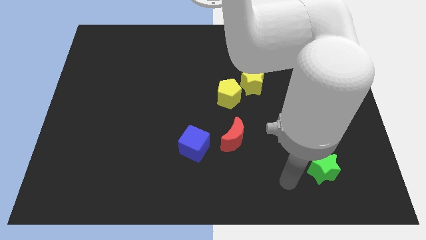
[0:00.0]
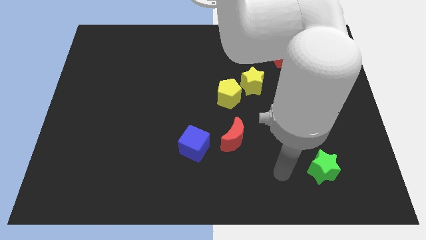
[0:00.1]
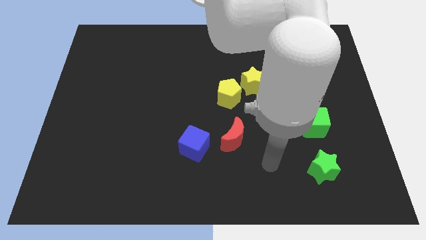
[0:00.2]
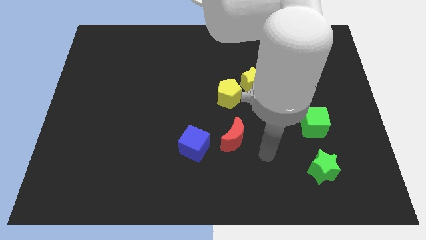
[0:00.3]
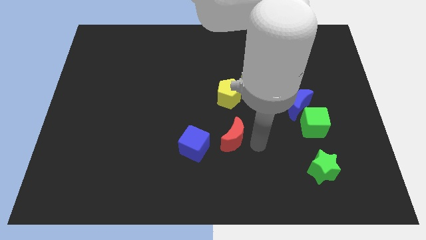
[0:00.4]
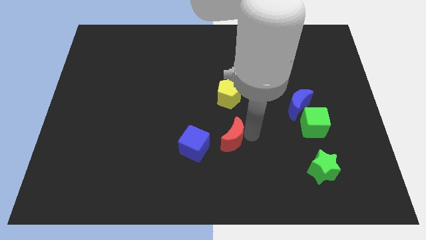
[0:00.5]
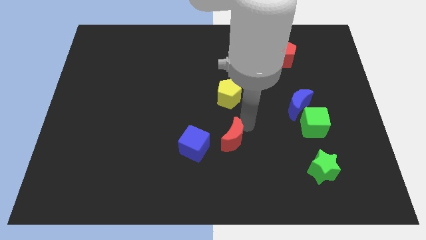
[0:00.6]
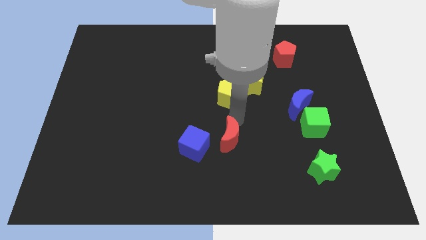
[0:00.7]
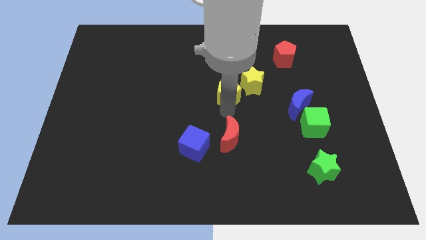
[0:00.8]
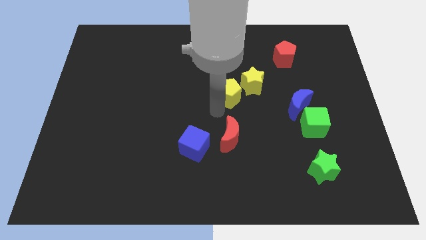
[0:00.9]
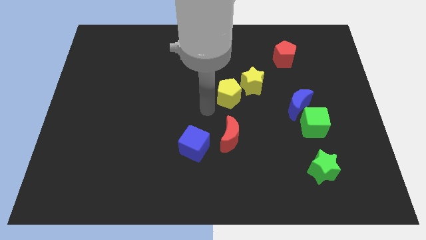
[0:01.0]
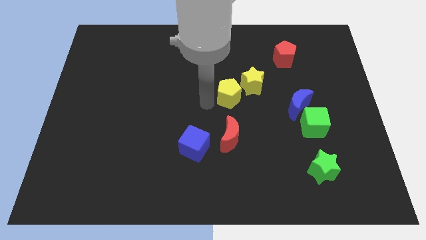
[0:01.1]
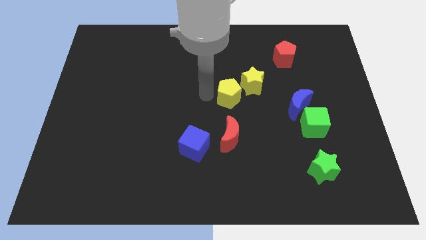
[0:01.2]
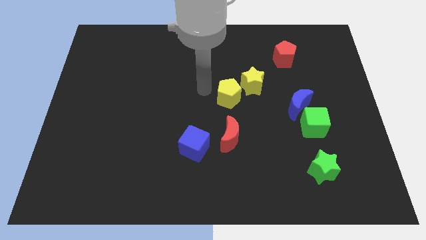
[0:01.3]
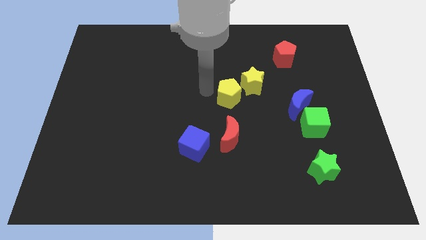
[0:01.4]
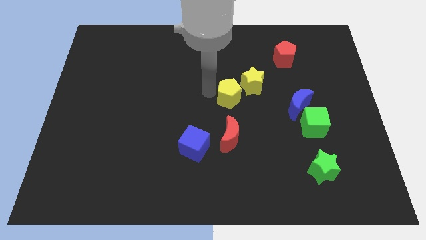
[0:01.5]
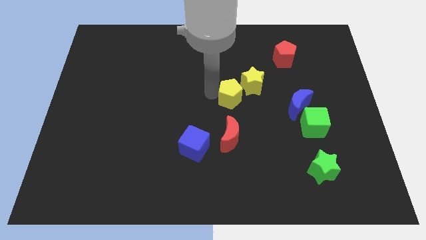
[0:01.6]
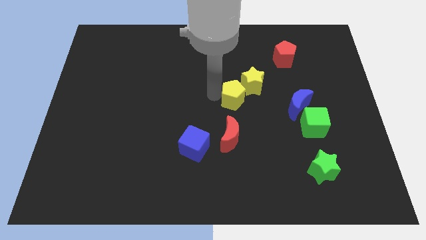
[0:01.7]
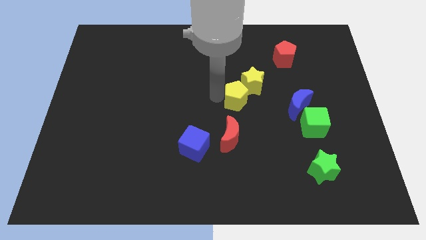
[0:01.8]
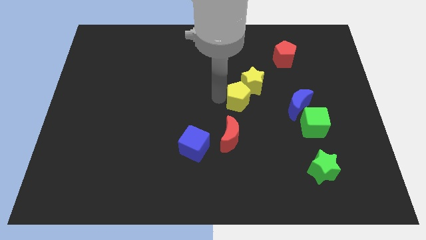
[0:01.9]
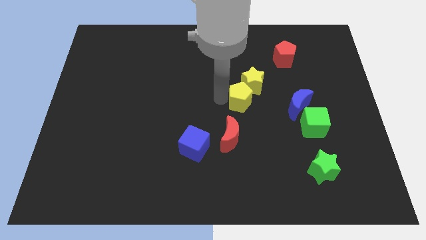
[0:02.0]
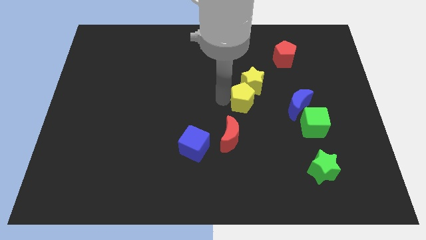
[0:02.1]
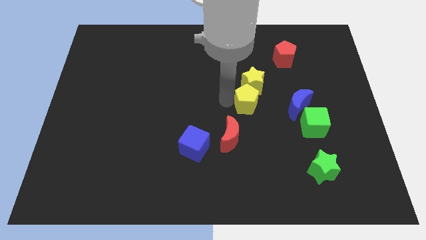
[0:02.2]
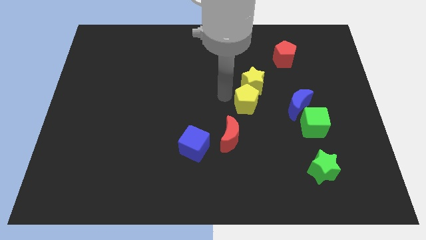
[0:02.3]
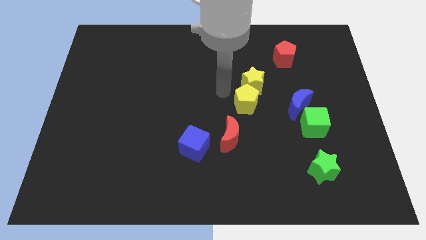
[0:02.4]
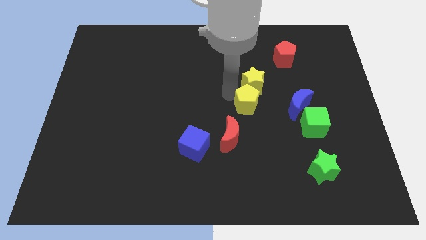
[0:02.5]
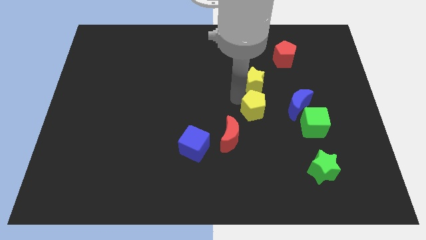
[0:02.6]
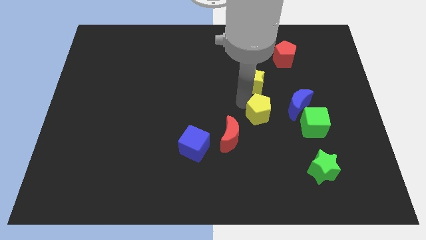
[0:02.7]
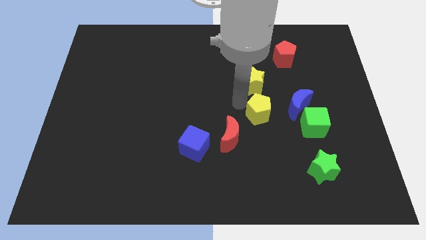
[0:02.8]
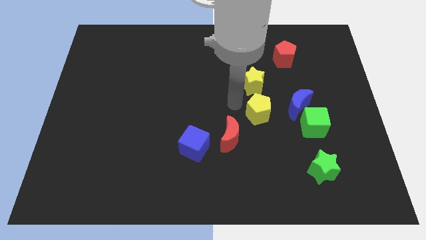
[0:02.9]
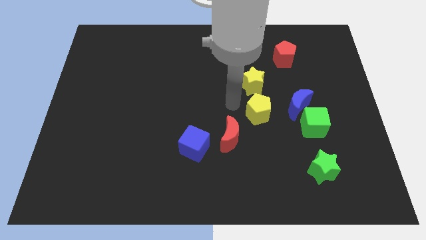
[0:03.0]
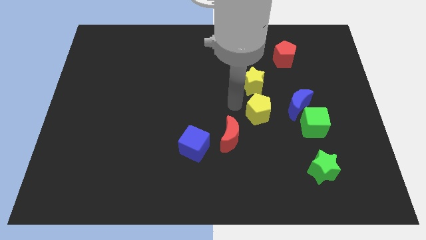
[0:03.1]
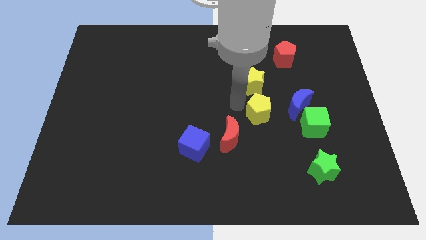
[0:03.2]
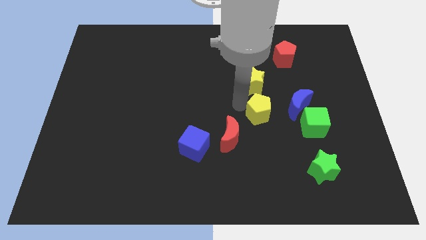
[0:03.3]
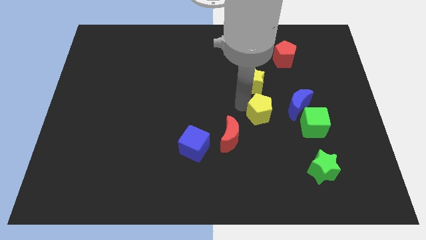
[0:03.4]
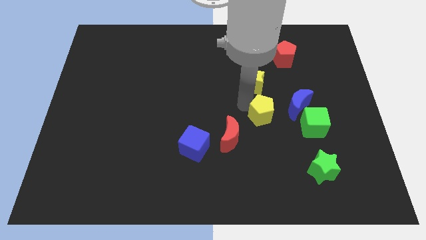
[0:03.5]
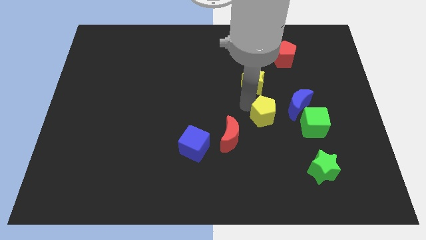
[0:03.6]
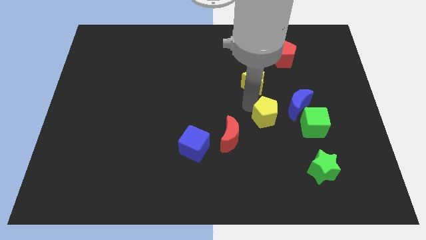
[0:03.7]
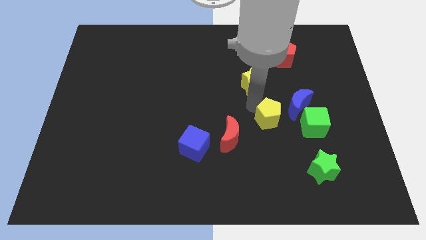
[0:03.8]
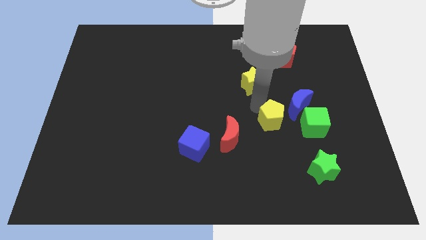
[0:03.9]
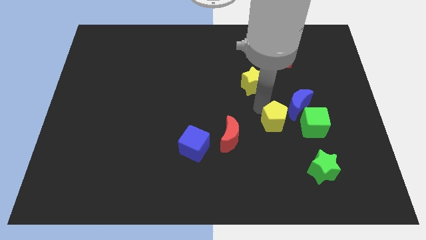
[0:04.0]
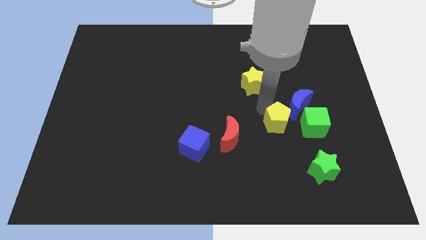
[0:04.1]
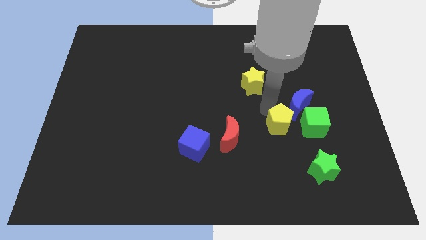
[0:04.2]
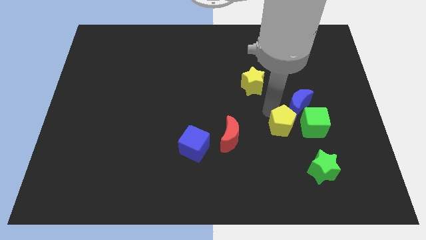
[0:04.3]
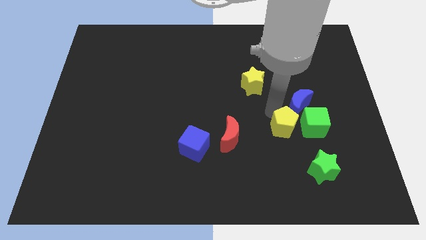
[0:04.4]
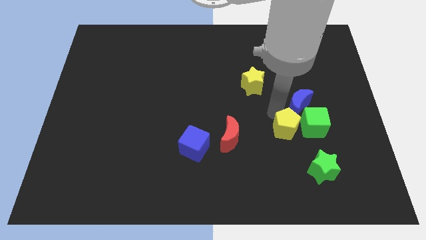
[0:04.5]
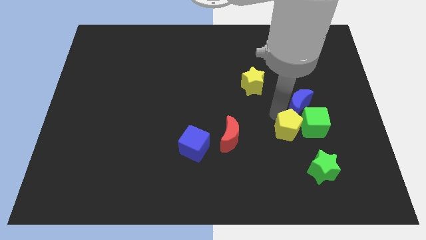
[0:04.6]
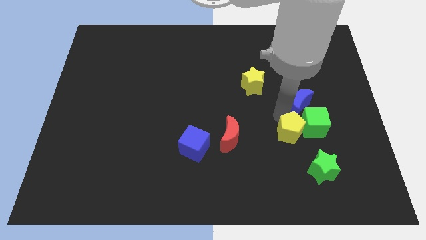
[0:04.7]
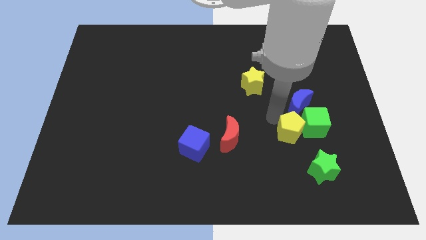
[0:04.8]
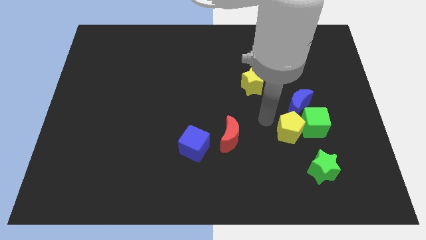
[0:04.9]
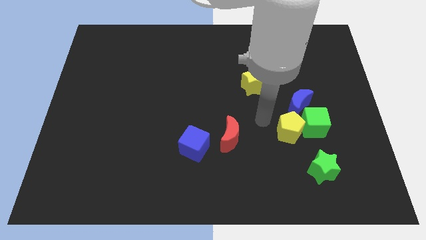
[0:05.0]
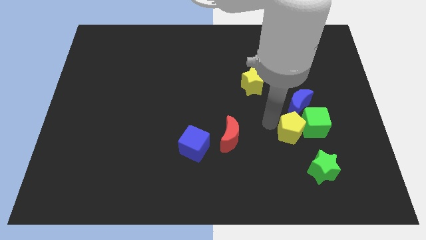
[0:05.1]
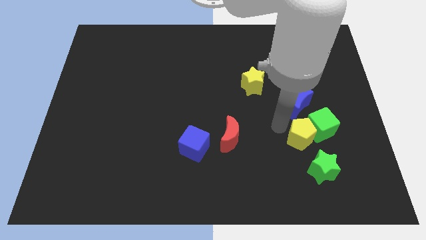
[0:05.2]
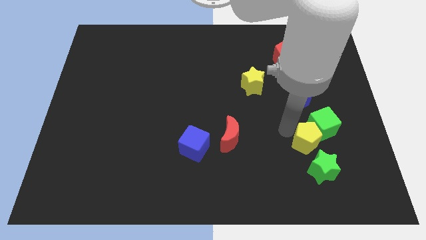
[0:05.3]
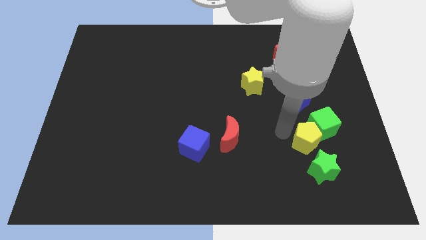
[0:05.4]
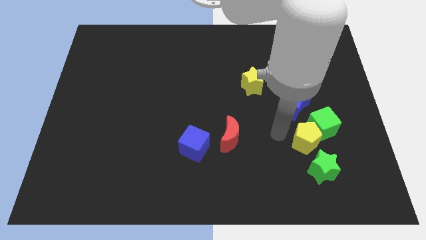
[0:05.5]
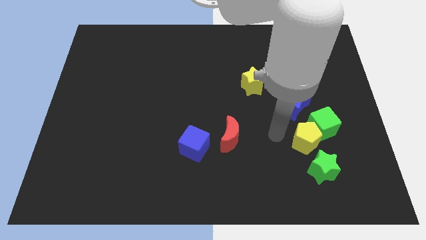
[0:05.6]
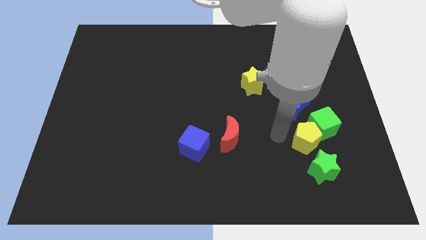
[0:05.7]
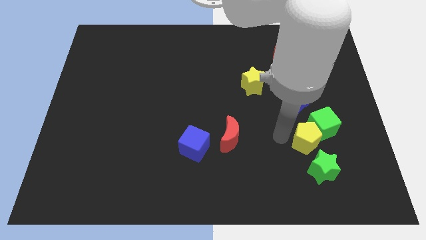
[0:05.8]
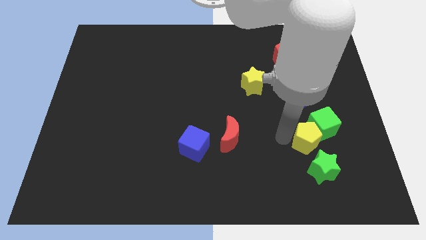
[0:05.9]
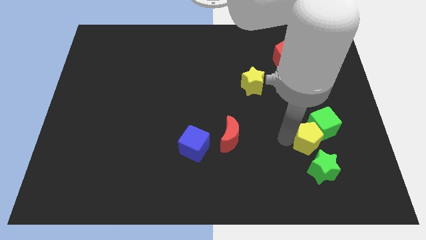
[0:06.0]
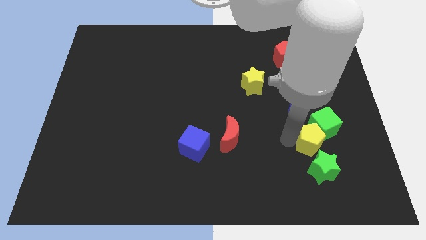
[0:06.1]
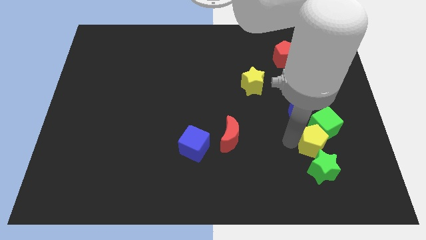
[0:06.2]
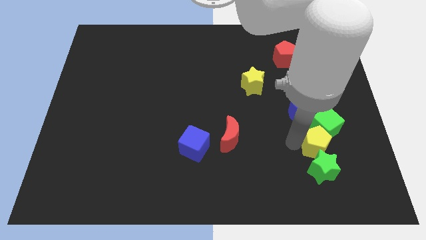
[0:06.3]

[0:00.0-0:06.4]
move the yellow pentagon to the top right of the green star

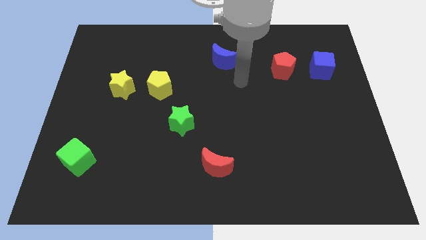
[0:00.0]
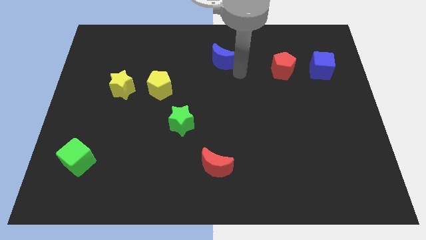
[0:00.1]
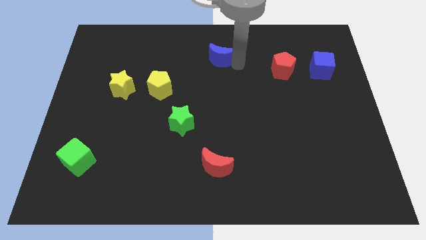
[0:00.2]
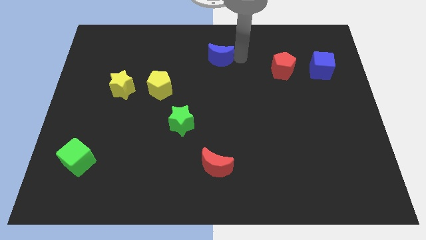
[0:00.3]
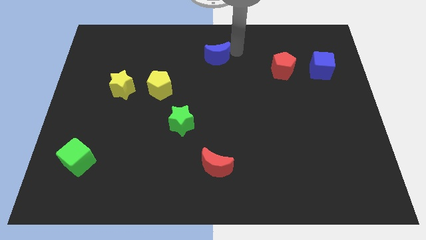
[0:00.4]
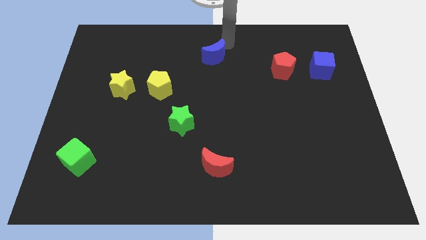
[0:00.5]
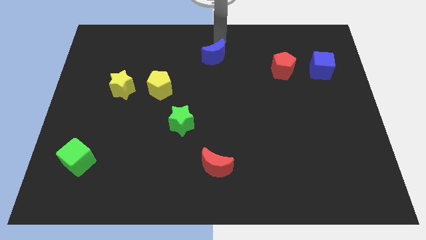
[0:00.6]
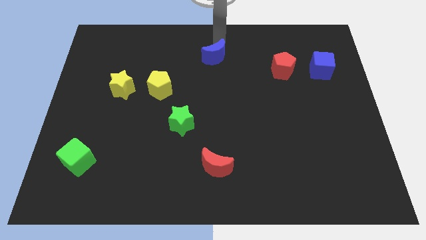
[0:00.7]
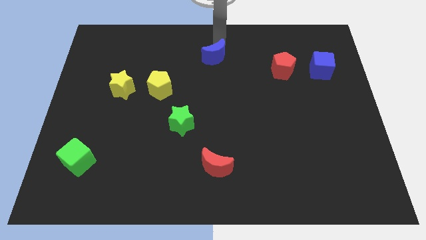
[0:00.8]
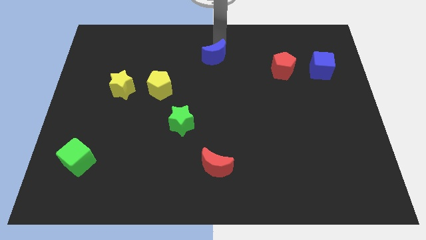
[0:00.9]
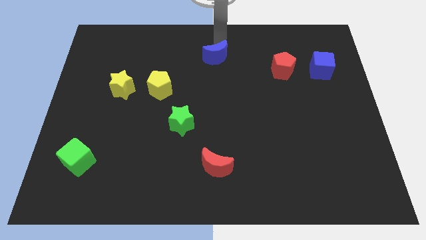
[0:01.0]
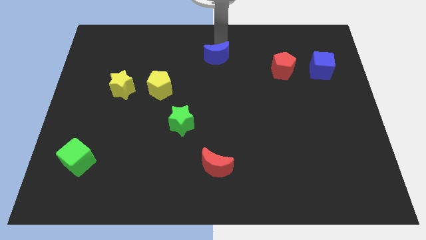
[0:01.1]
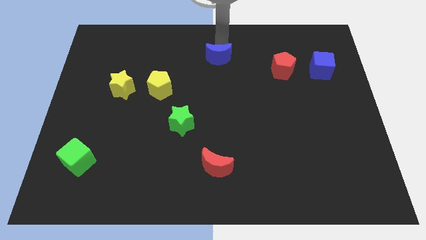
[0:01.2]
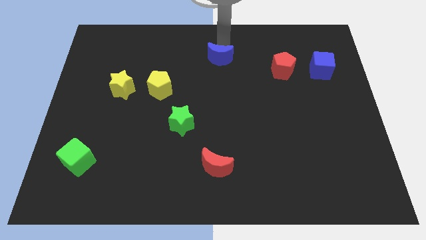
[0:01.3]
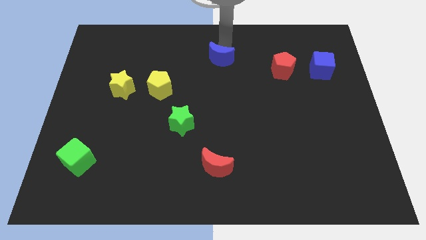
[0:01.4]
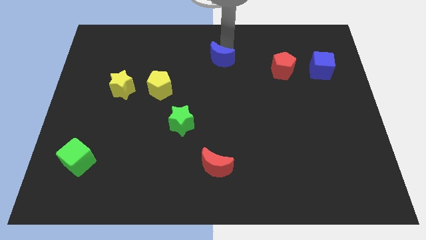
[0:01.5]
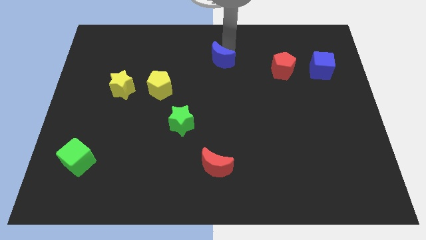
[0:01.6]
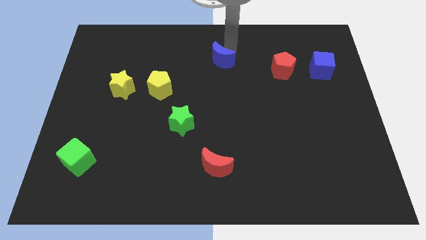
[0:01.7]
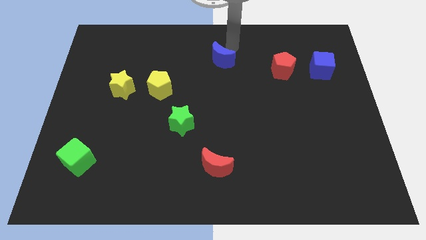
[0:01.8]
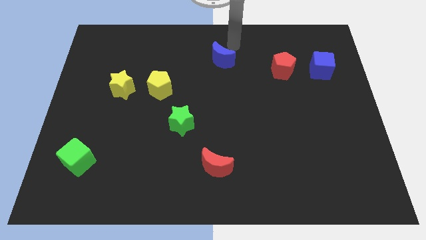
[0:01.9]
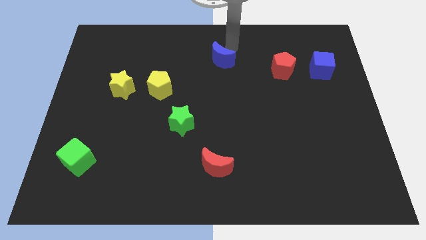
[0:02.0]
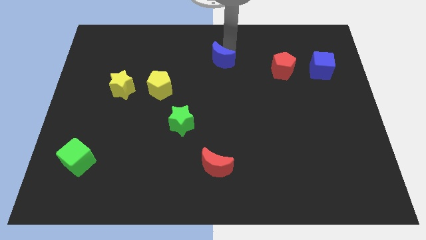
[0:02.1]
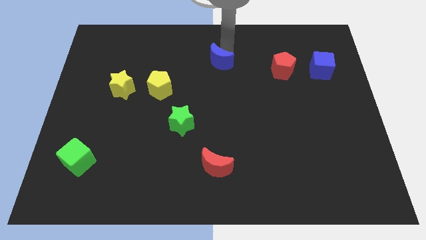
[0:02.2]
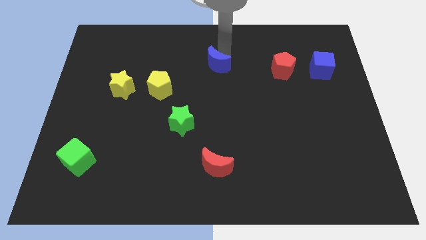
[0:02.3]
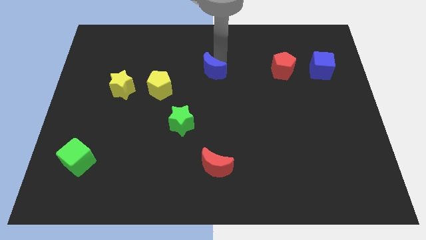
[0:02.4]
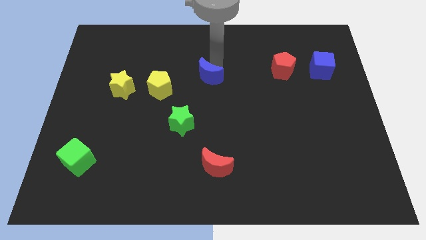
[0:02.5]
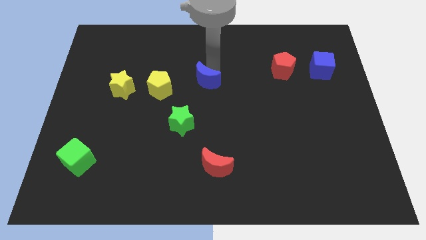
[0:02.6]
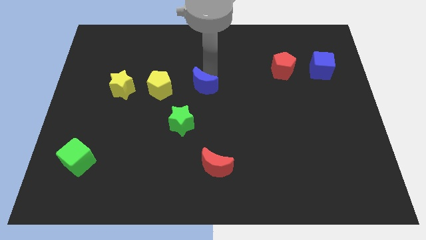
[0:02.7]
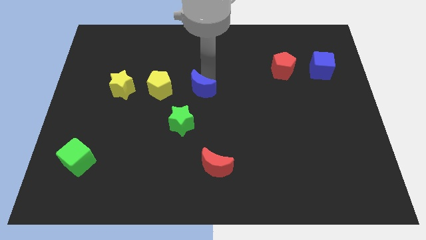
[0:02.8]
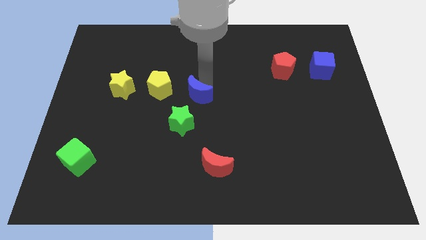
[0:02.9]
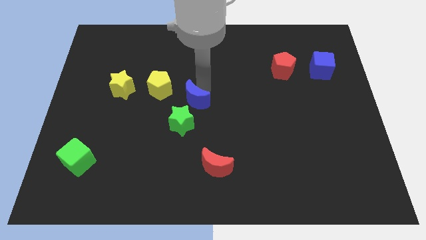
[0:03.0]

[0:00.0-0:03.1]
put the blue moon to the bottom right of the yellow pentagon
